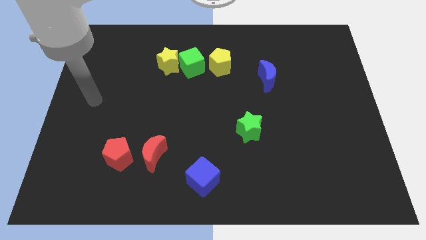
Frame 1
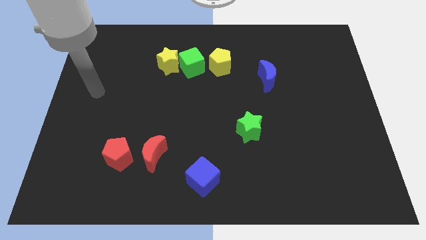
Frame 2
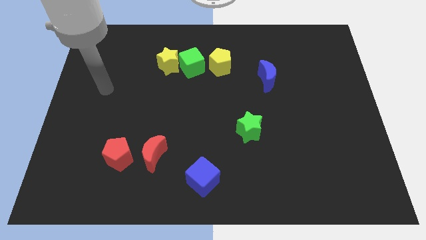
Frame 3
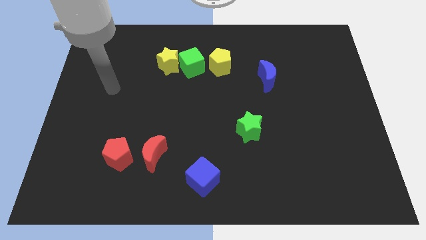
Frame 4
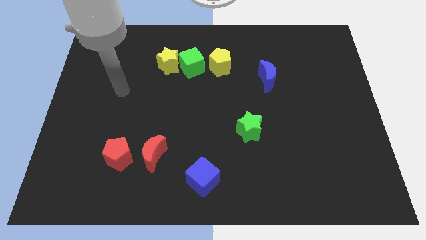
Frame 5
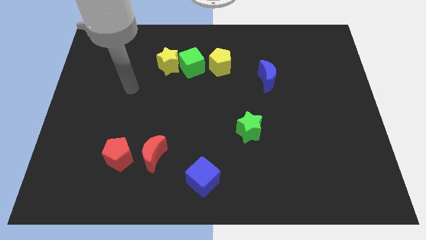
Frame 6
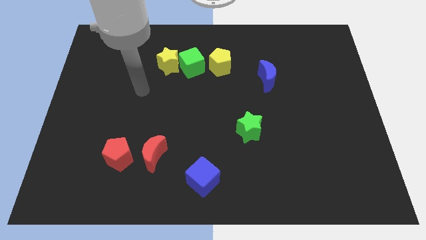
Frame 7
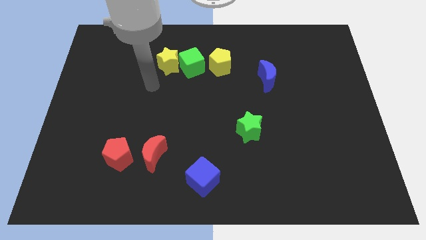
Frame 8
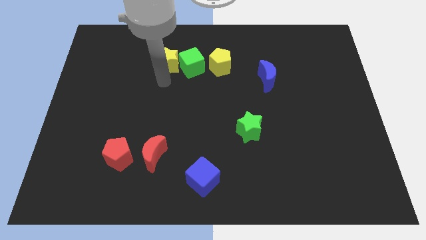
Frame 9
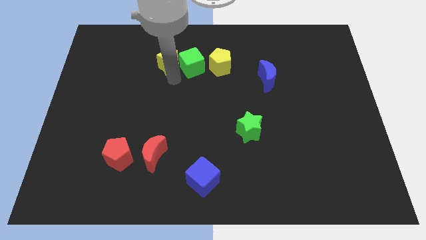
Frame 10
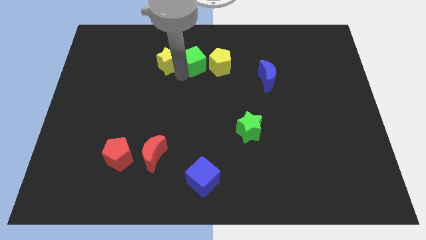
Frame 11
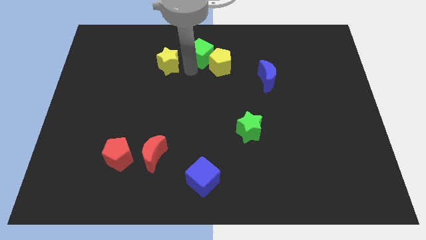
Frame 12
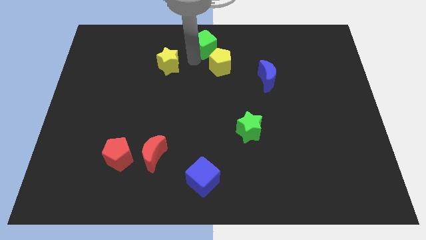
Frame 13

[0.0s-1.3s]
move the yellow star away from the green cube

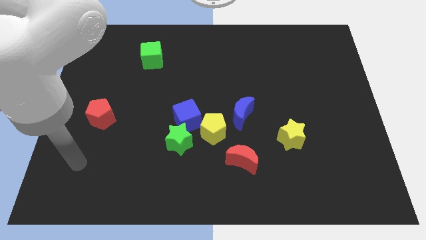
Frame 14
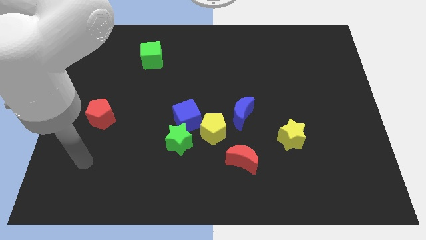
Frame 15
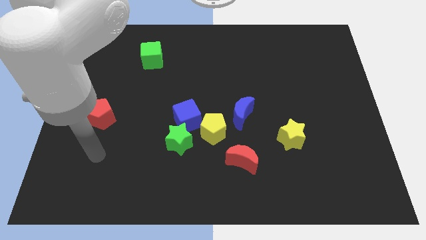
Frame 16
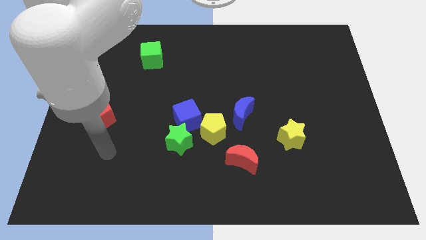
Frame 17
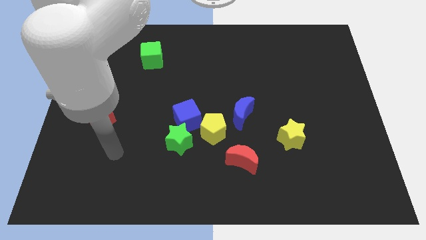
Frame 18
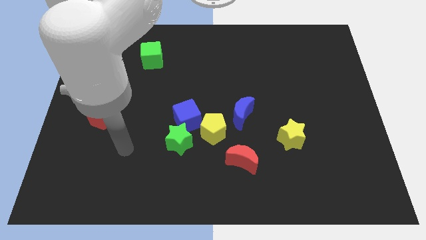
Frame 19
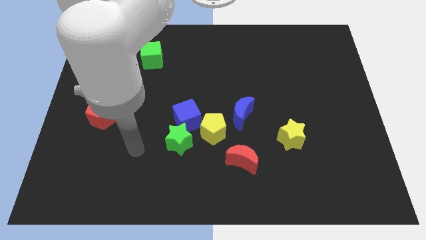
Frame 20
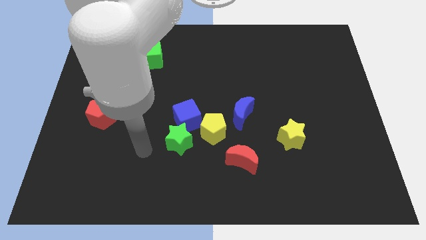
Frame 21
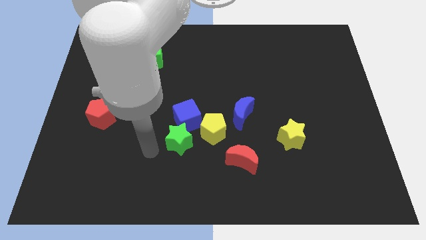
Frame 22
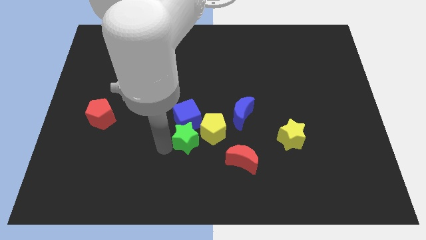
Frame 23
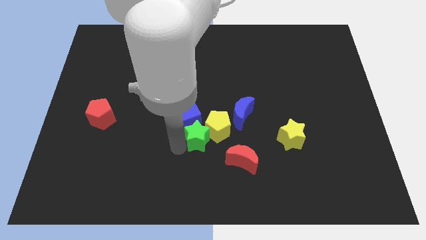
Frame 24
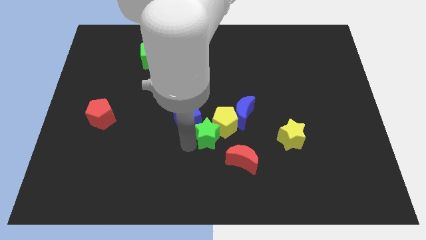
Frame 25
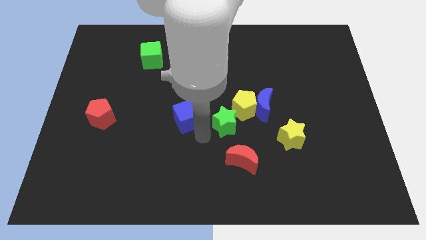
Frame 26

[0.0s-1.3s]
separate the blue cube from the green star and yellow pentagon

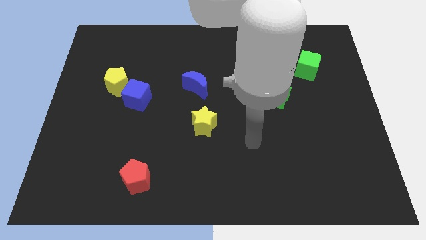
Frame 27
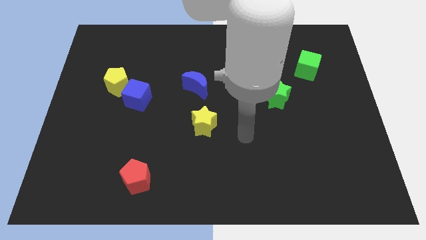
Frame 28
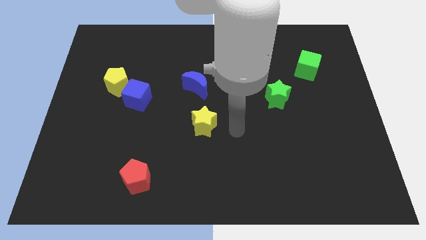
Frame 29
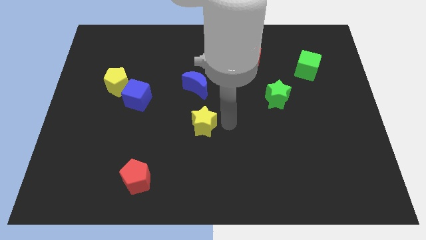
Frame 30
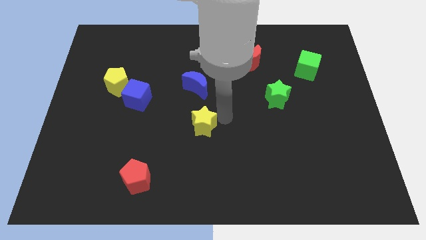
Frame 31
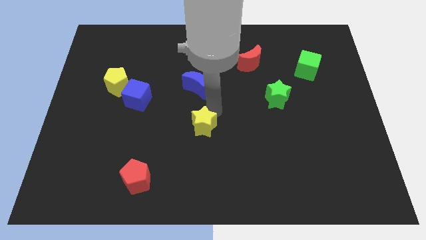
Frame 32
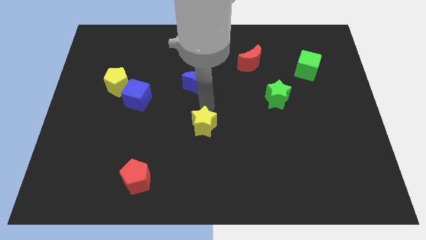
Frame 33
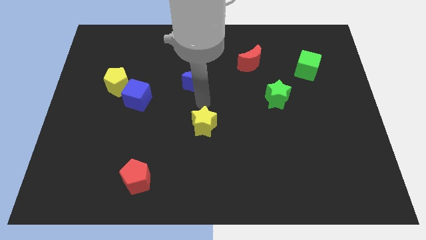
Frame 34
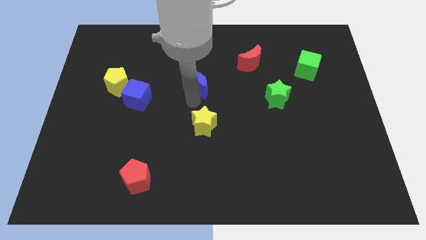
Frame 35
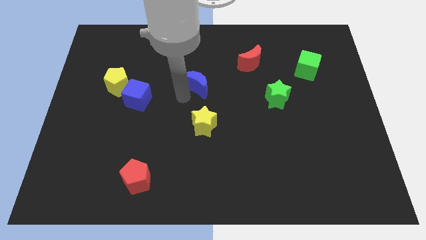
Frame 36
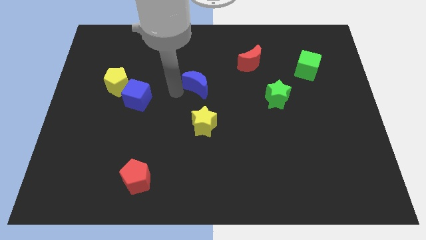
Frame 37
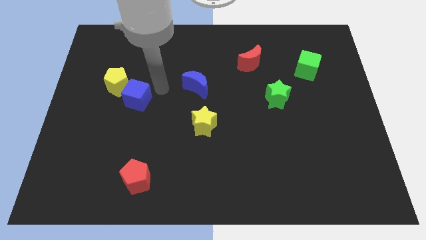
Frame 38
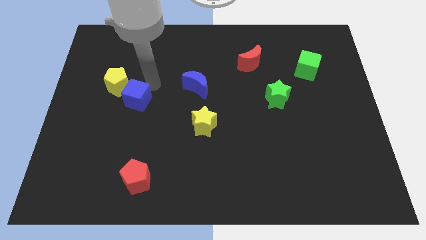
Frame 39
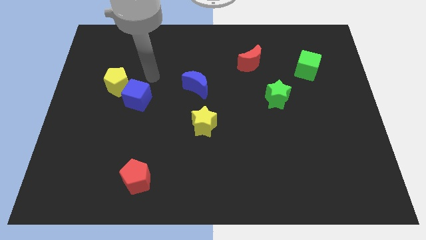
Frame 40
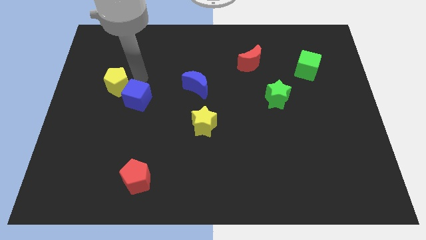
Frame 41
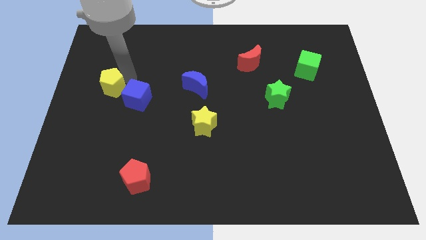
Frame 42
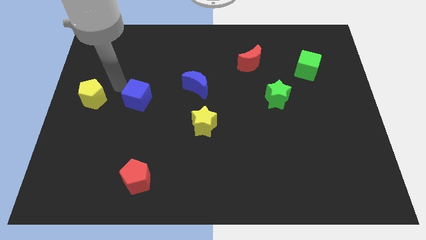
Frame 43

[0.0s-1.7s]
pull the blue cube apart from the yellow pentagon

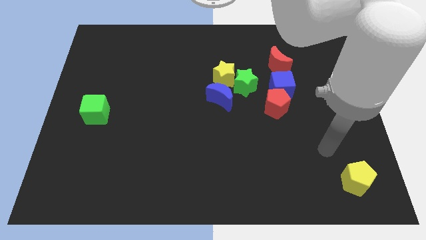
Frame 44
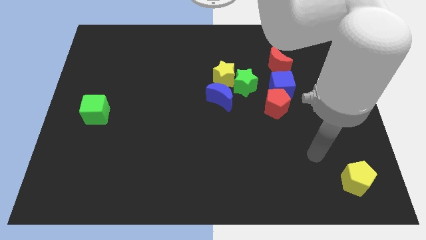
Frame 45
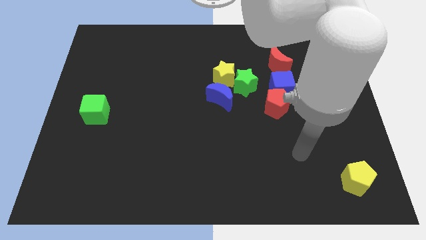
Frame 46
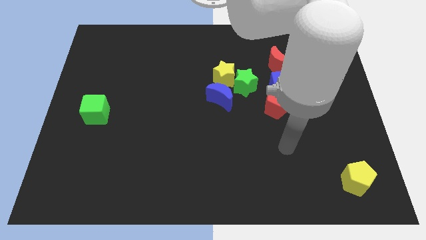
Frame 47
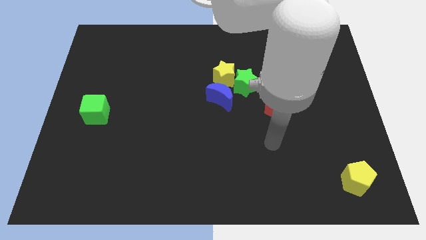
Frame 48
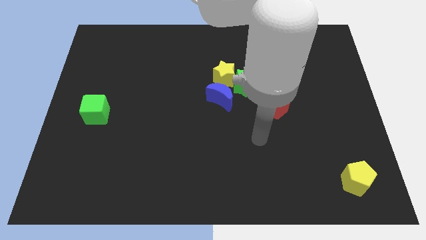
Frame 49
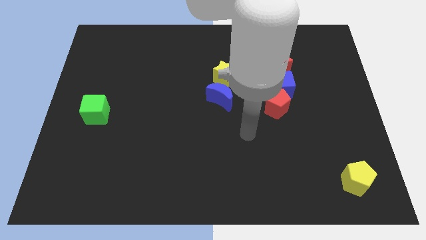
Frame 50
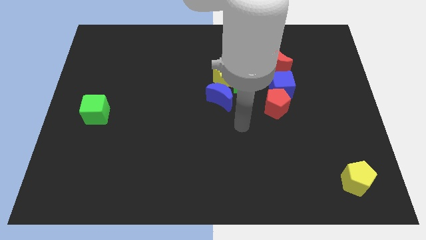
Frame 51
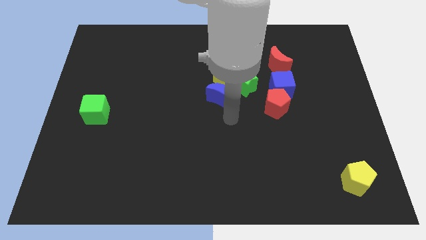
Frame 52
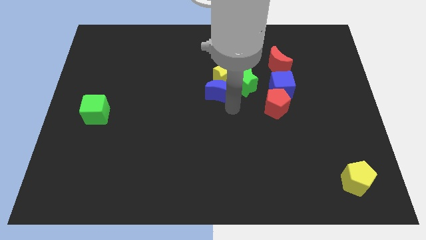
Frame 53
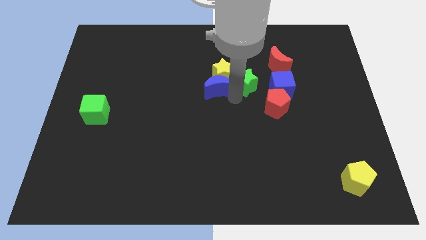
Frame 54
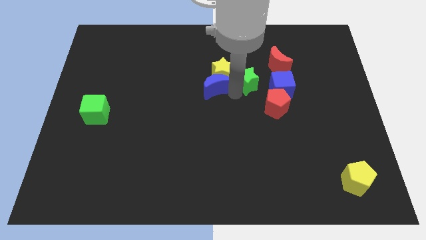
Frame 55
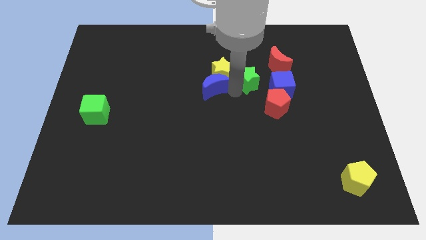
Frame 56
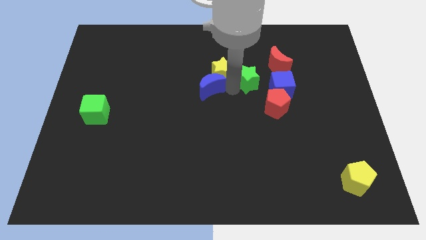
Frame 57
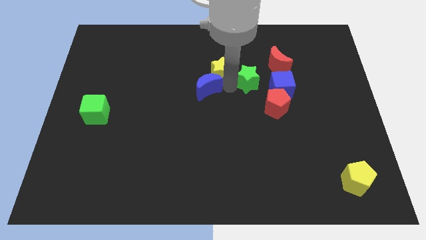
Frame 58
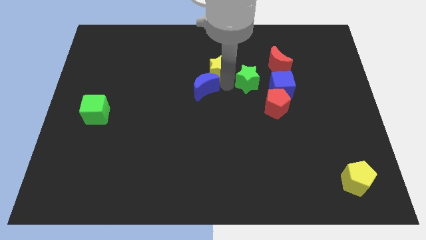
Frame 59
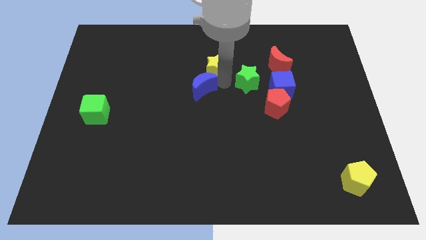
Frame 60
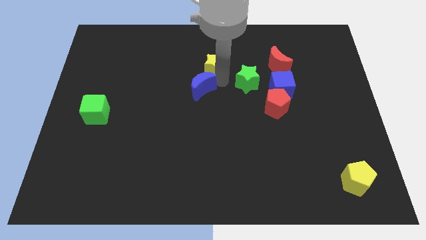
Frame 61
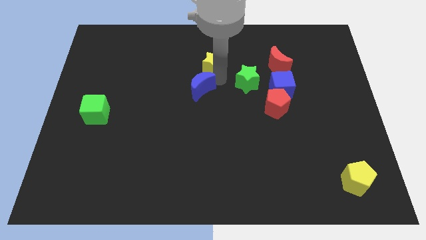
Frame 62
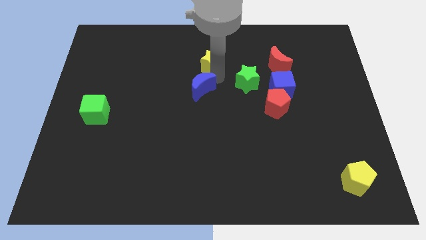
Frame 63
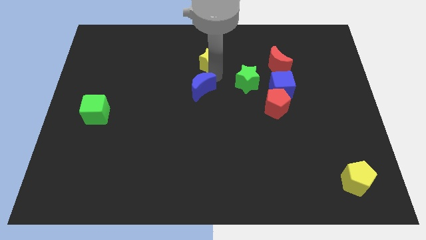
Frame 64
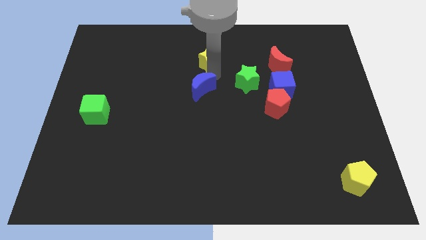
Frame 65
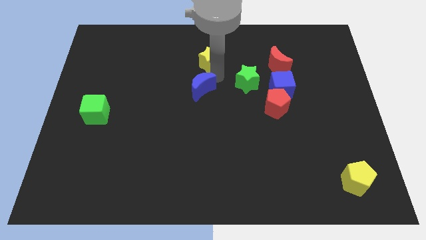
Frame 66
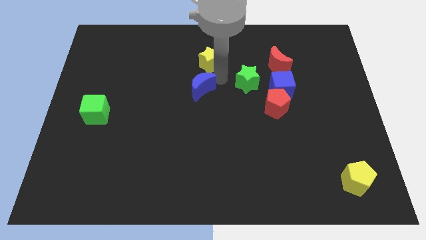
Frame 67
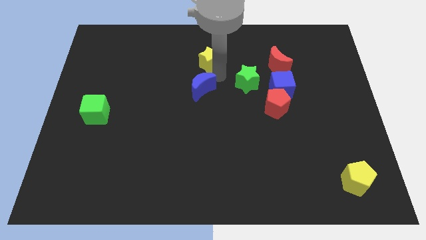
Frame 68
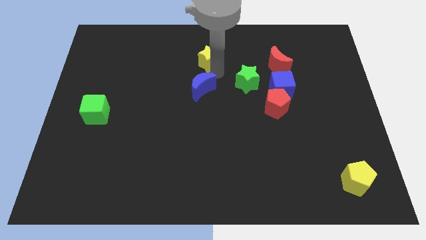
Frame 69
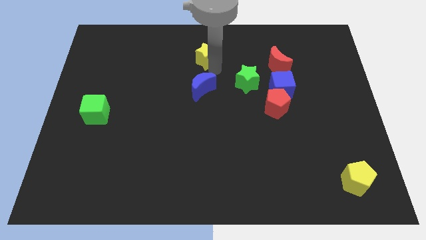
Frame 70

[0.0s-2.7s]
pull the yellow star apart from the green star and blue moon

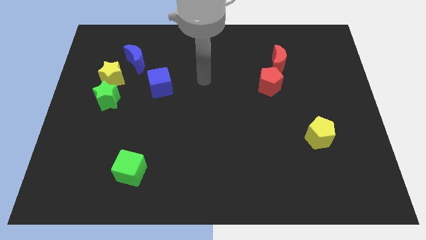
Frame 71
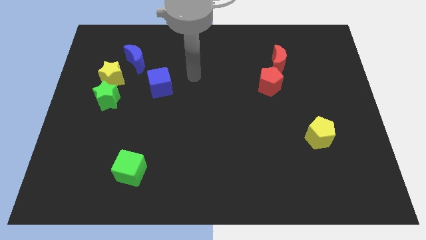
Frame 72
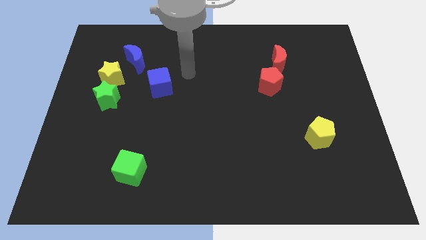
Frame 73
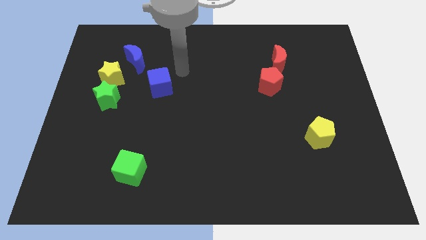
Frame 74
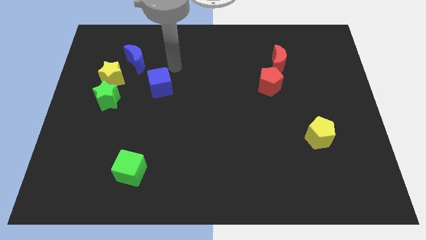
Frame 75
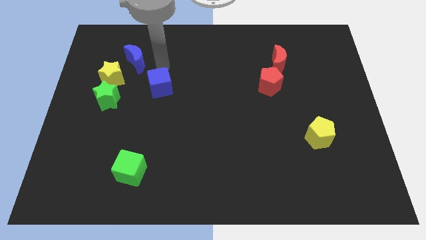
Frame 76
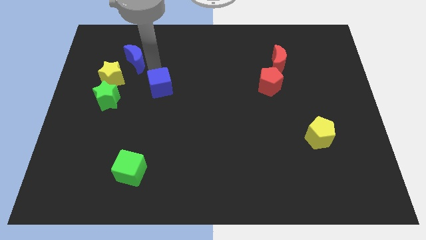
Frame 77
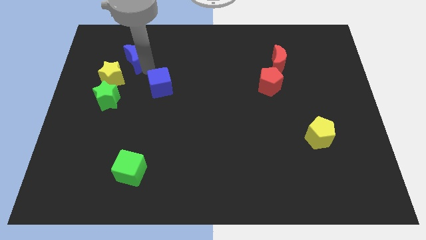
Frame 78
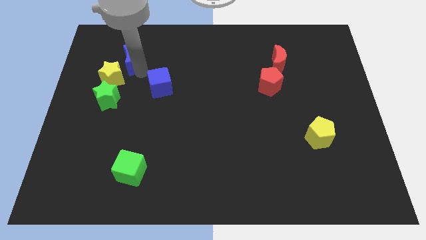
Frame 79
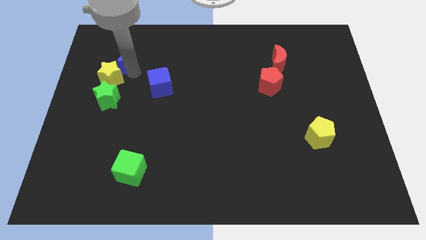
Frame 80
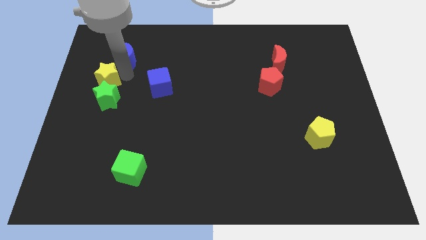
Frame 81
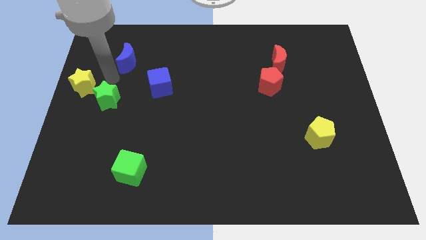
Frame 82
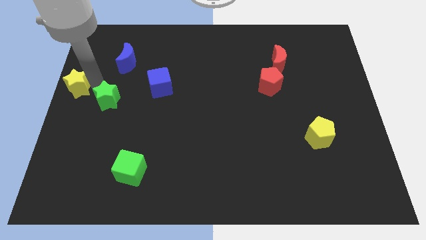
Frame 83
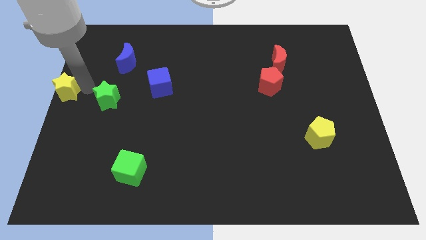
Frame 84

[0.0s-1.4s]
separate the green star from the yellow star

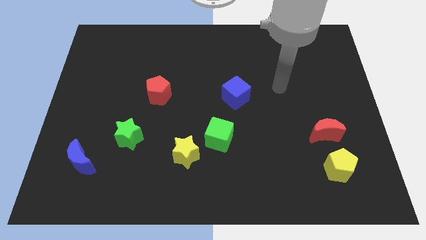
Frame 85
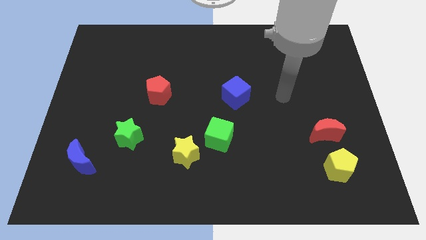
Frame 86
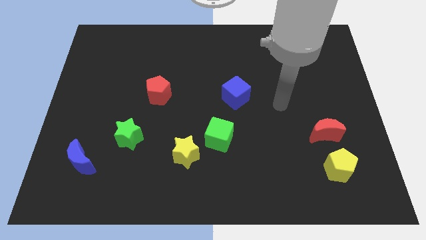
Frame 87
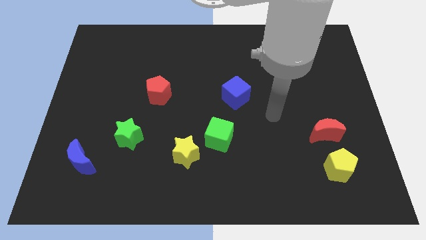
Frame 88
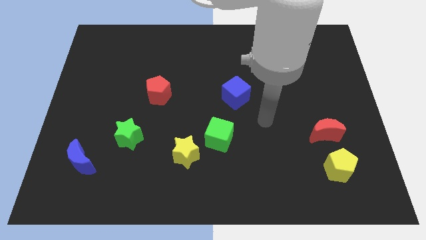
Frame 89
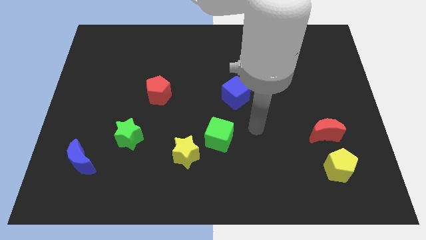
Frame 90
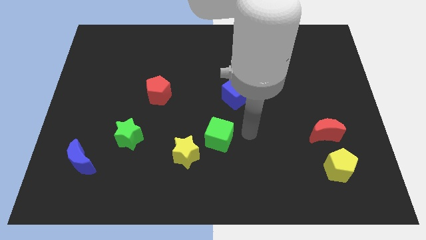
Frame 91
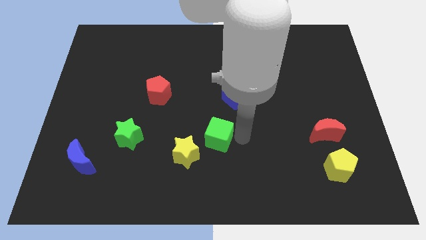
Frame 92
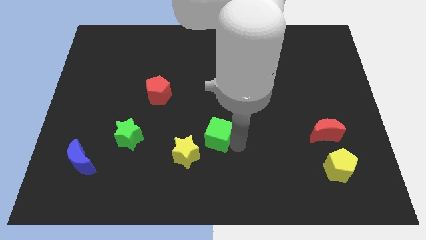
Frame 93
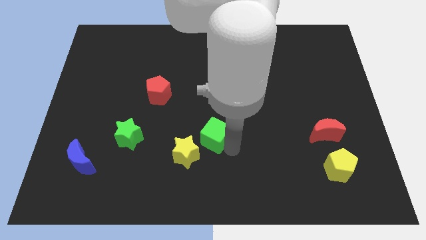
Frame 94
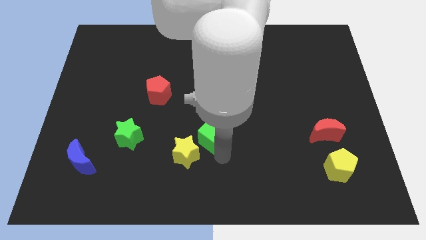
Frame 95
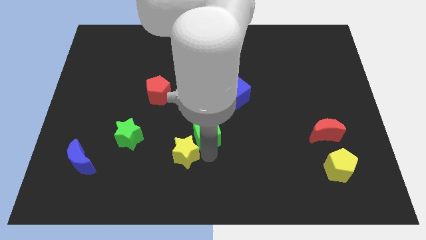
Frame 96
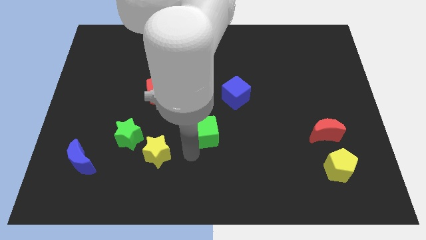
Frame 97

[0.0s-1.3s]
separate the green cube from the yellow star
